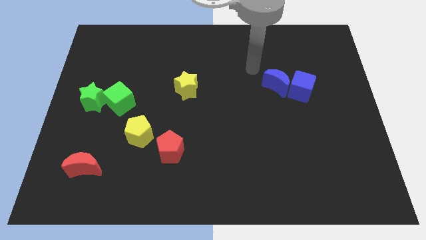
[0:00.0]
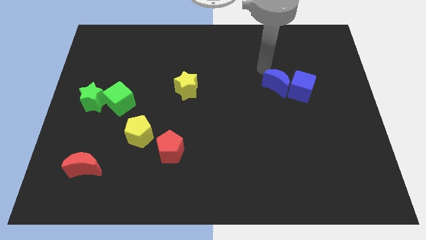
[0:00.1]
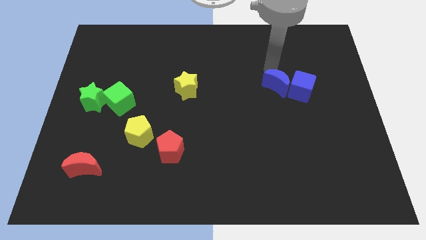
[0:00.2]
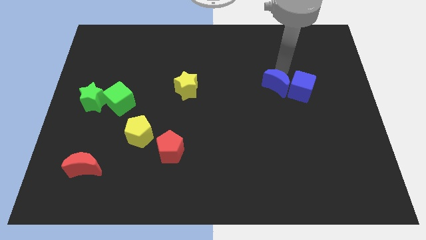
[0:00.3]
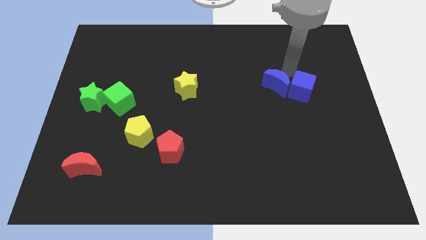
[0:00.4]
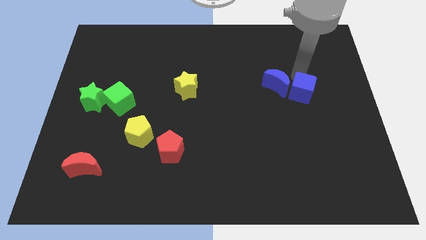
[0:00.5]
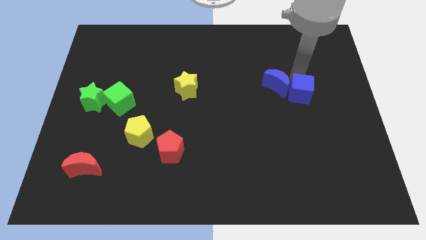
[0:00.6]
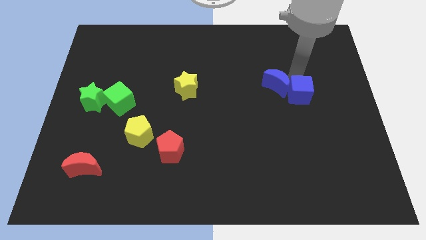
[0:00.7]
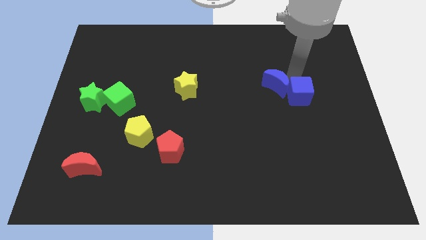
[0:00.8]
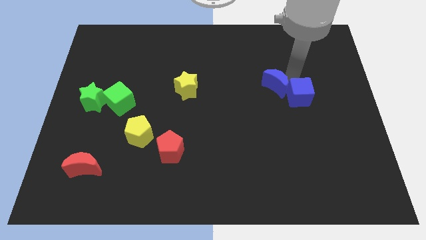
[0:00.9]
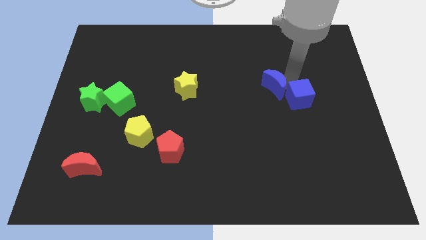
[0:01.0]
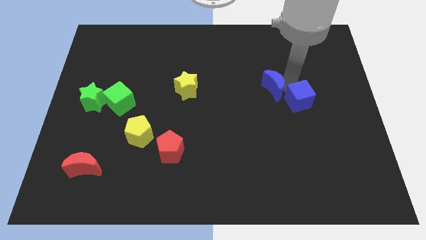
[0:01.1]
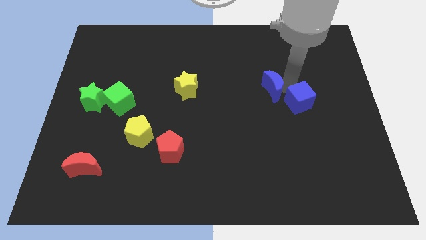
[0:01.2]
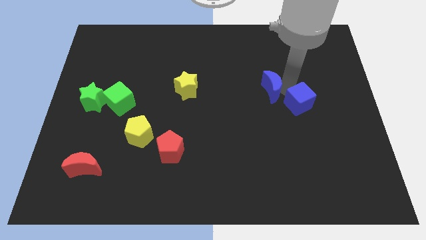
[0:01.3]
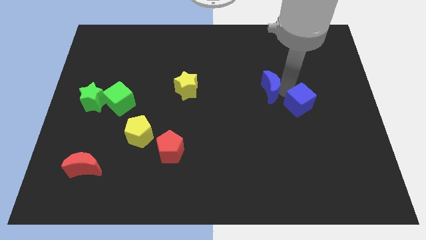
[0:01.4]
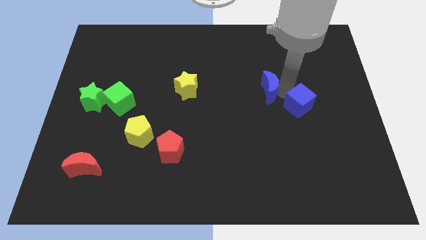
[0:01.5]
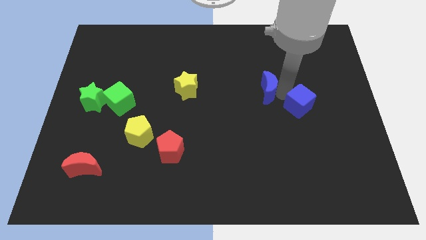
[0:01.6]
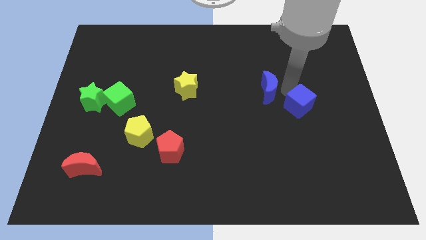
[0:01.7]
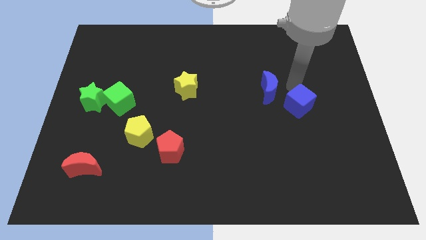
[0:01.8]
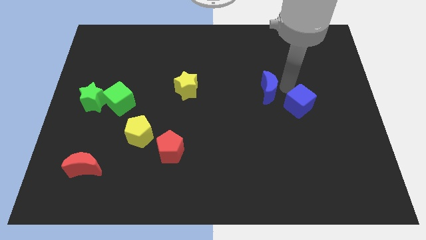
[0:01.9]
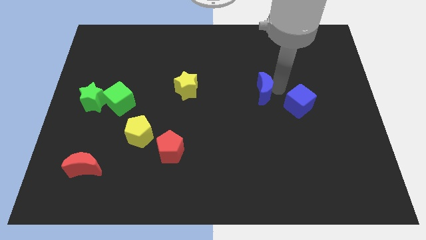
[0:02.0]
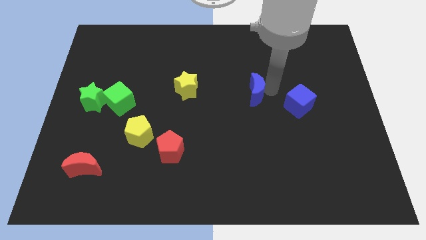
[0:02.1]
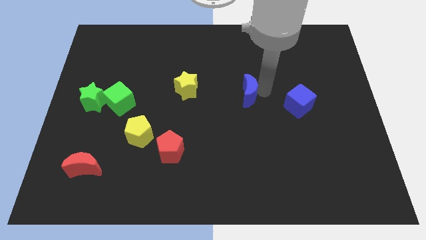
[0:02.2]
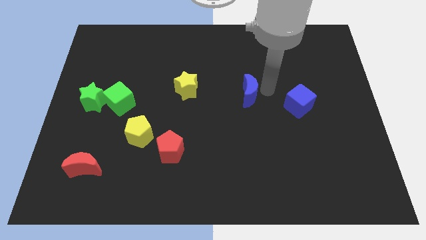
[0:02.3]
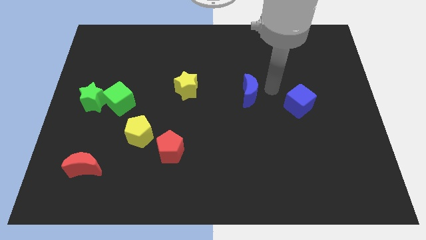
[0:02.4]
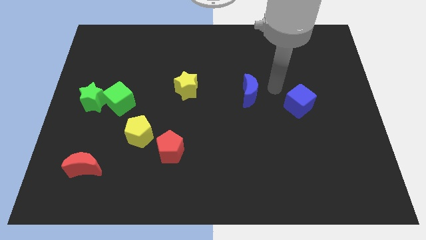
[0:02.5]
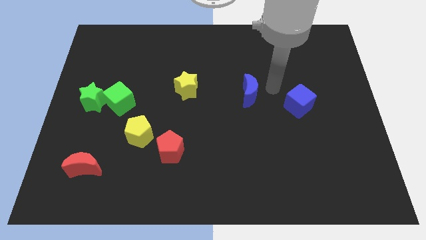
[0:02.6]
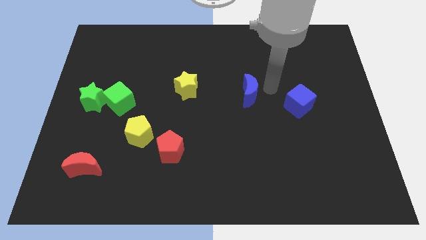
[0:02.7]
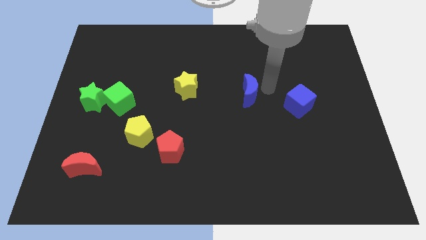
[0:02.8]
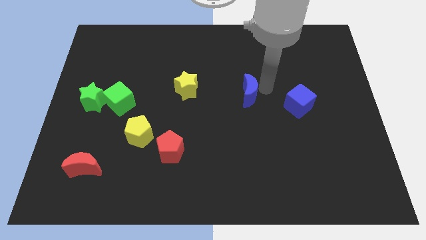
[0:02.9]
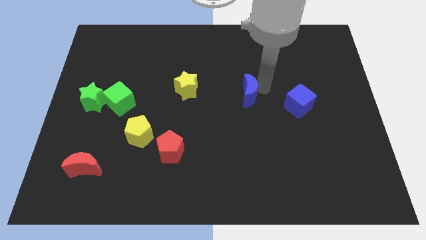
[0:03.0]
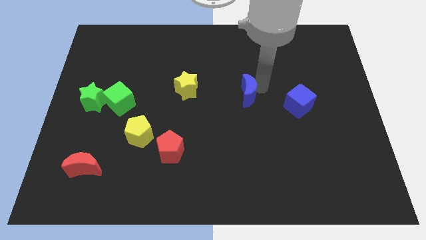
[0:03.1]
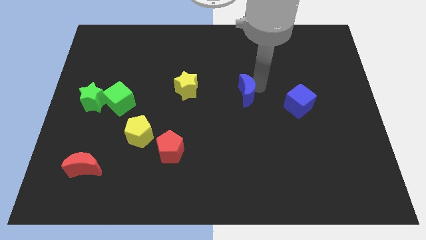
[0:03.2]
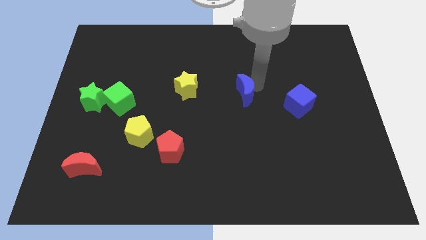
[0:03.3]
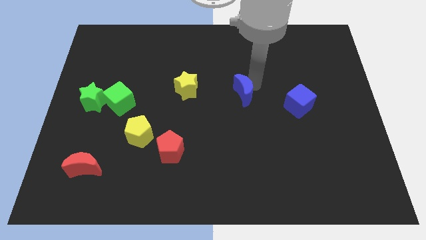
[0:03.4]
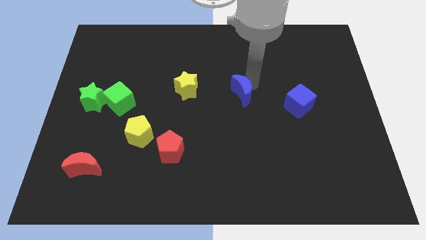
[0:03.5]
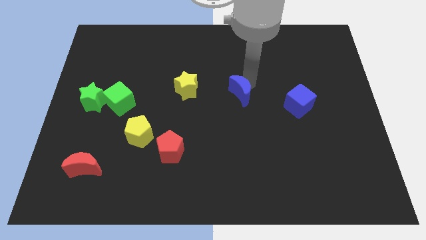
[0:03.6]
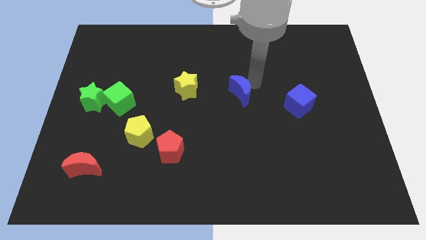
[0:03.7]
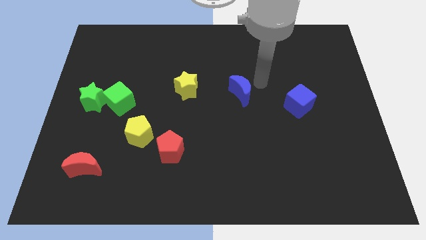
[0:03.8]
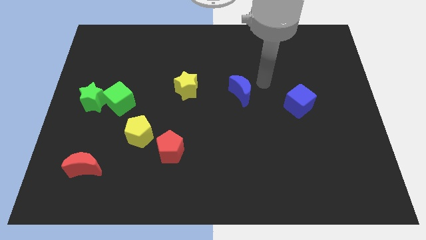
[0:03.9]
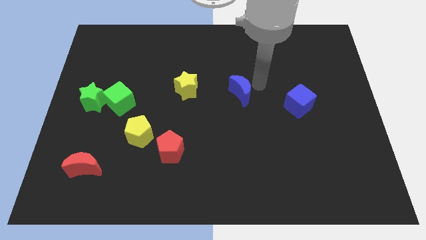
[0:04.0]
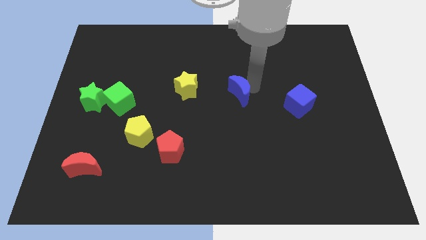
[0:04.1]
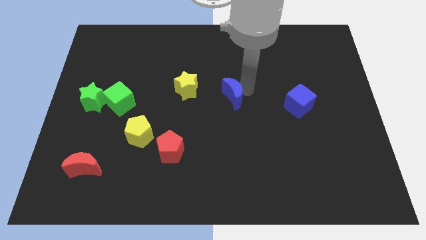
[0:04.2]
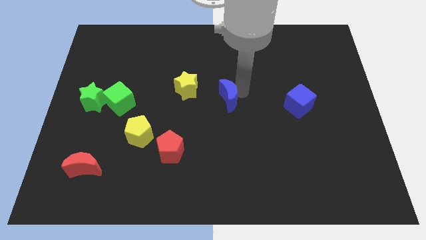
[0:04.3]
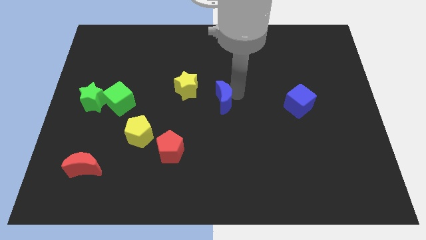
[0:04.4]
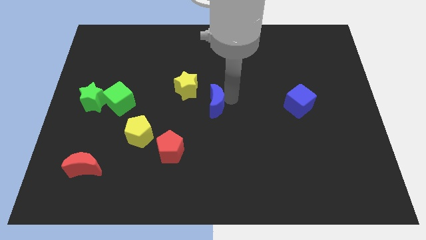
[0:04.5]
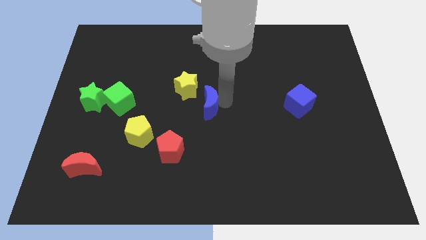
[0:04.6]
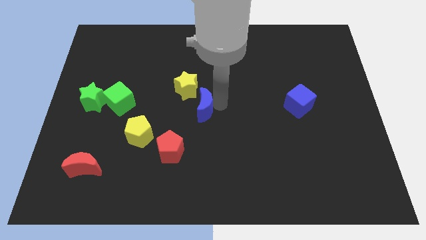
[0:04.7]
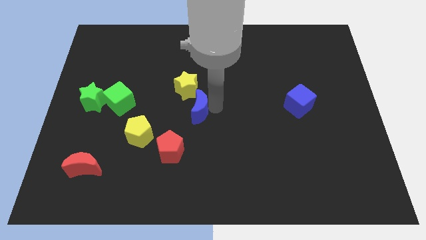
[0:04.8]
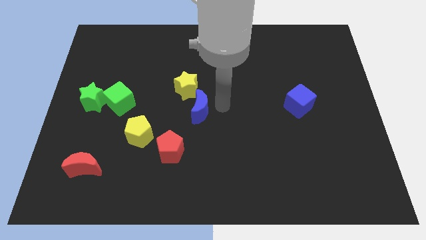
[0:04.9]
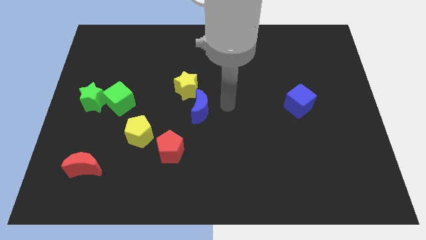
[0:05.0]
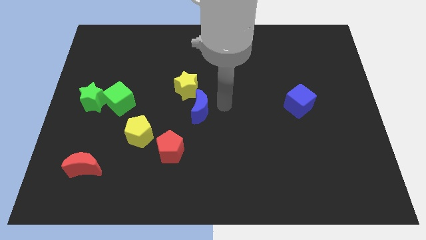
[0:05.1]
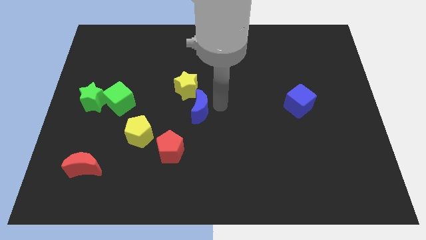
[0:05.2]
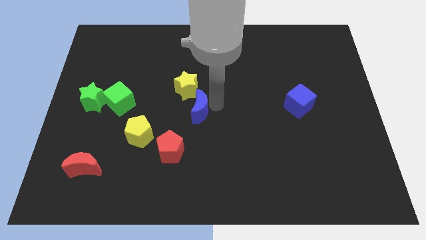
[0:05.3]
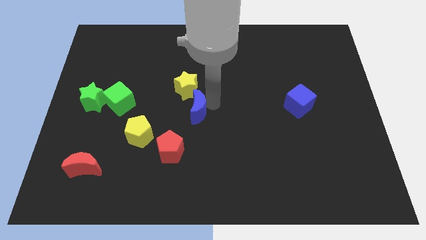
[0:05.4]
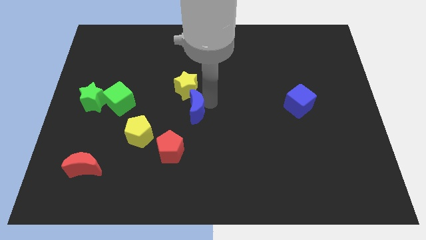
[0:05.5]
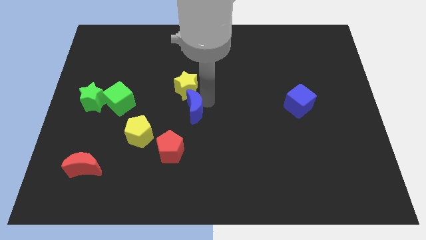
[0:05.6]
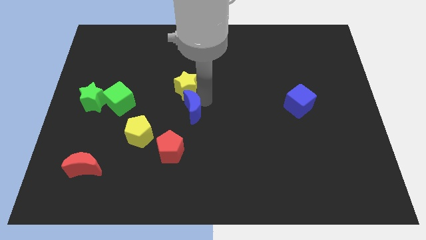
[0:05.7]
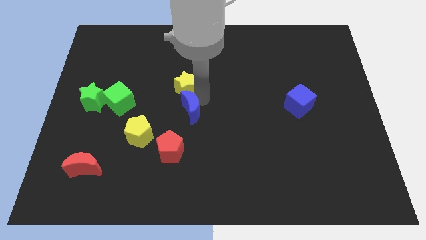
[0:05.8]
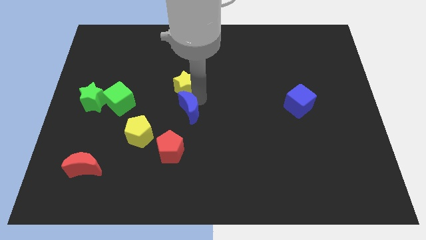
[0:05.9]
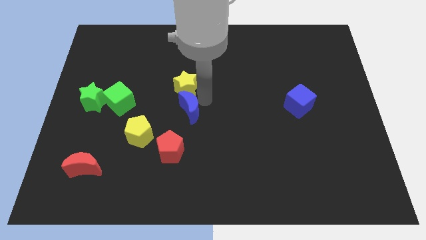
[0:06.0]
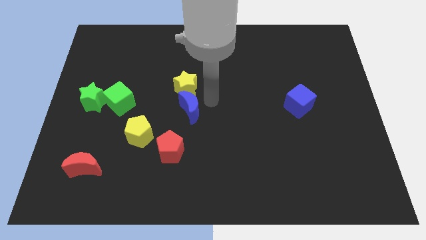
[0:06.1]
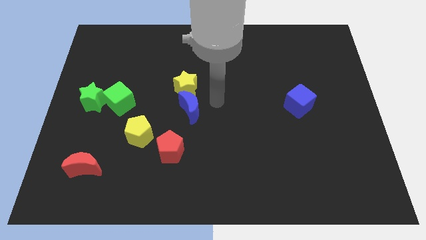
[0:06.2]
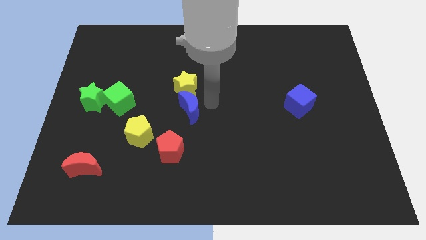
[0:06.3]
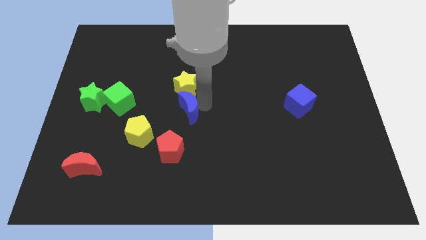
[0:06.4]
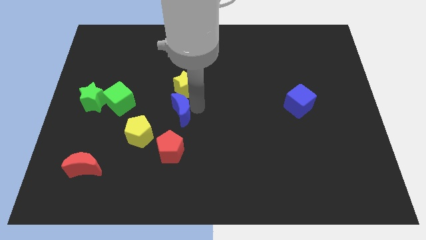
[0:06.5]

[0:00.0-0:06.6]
put the blue moon to the top right side of the yellow pentagon
